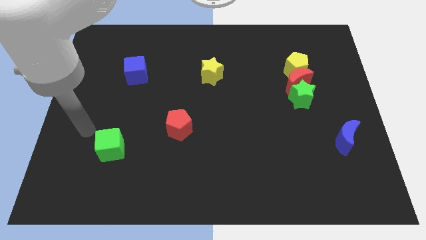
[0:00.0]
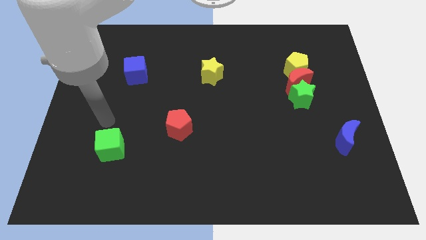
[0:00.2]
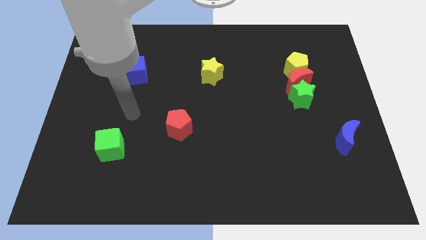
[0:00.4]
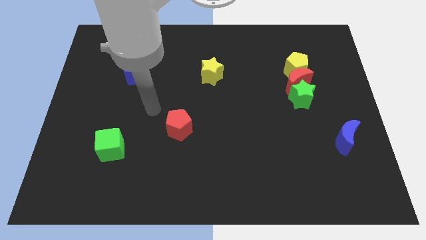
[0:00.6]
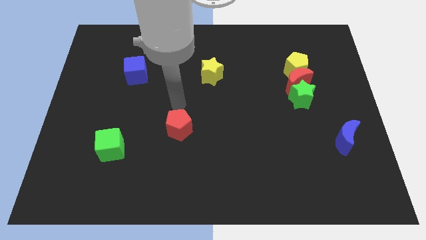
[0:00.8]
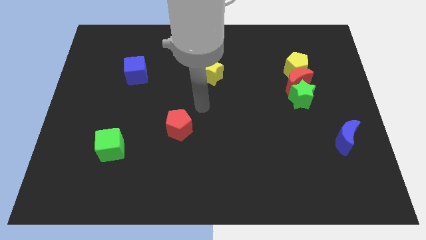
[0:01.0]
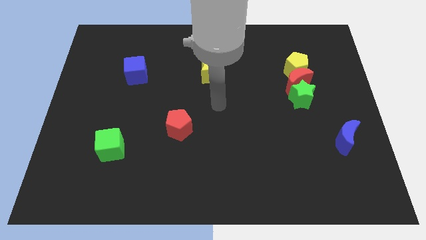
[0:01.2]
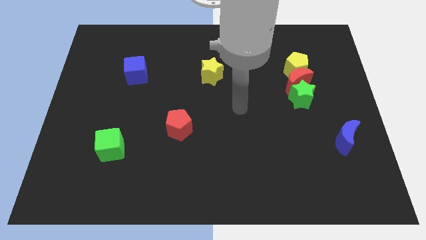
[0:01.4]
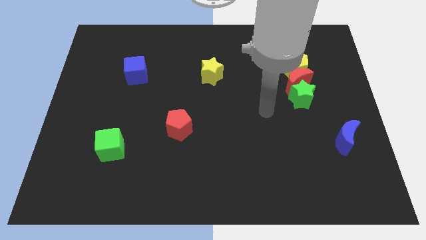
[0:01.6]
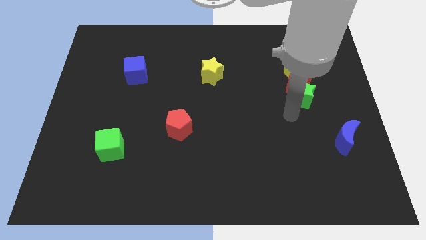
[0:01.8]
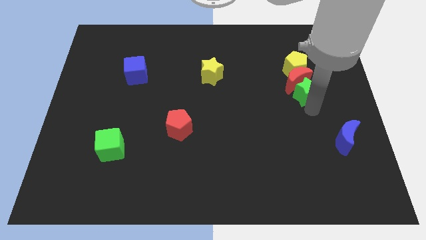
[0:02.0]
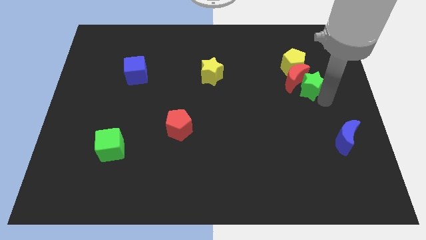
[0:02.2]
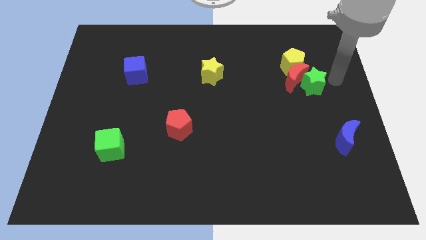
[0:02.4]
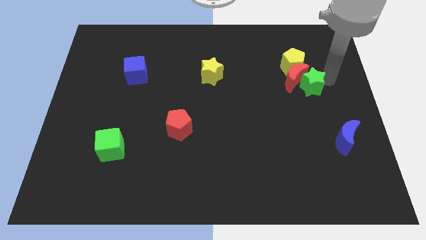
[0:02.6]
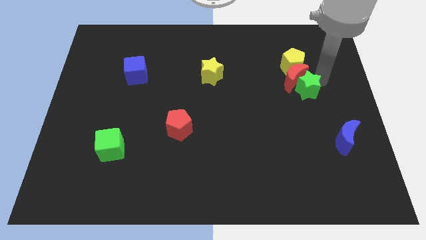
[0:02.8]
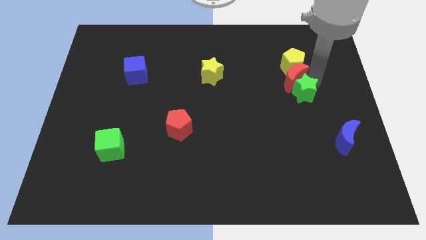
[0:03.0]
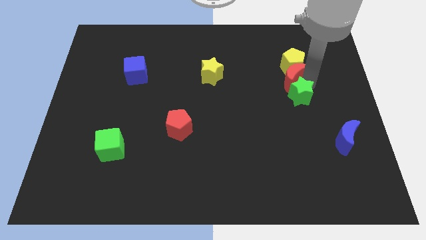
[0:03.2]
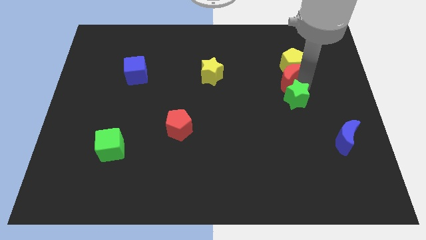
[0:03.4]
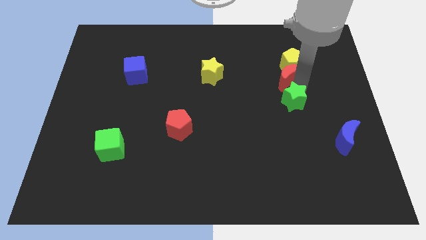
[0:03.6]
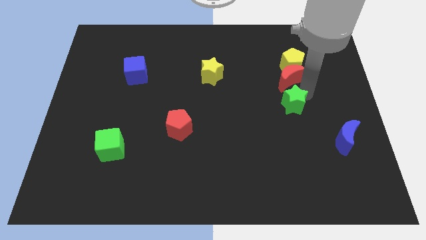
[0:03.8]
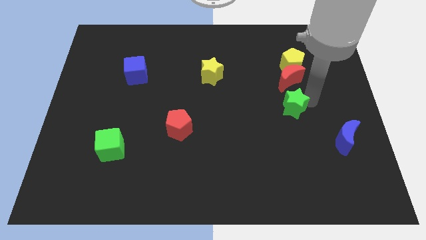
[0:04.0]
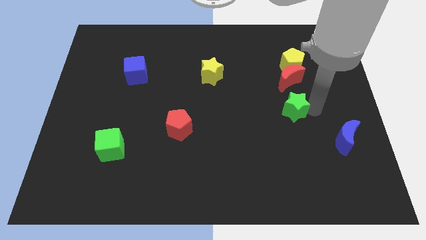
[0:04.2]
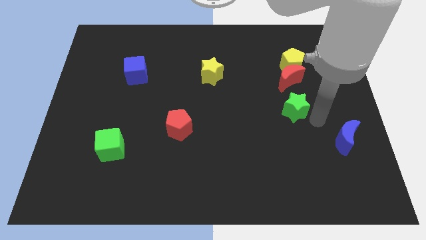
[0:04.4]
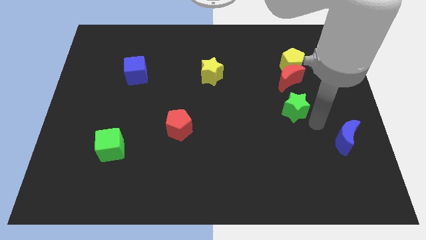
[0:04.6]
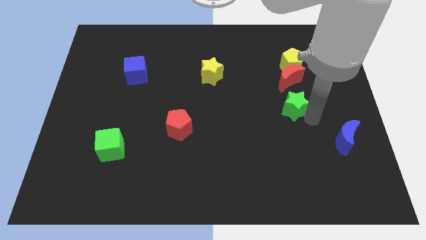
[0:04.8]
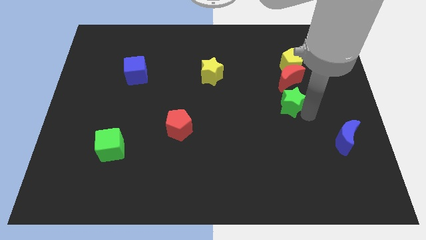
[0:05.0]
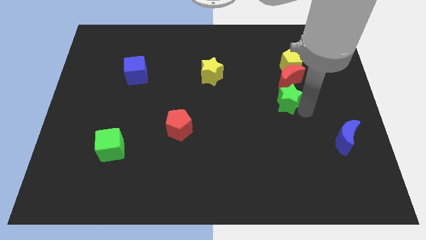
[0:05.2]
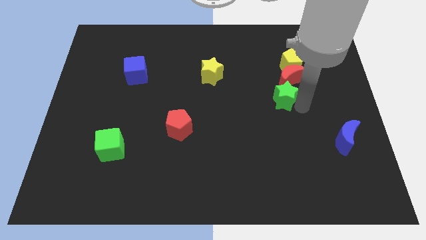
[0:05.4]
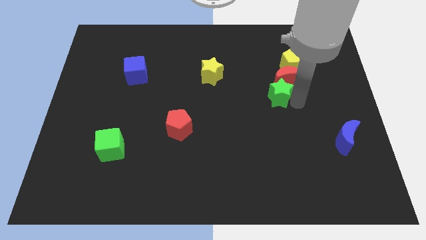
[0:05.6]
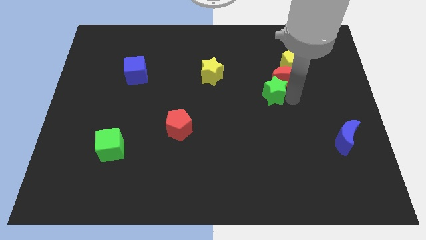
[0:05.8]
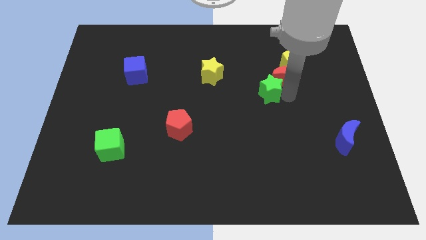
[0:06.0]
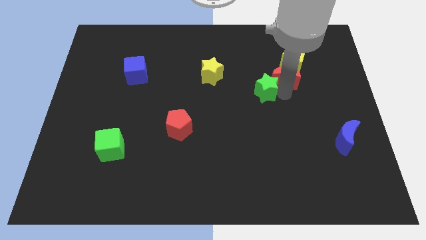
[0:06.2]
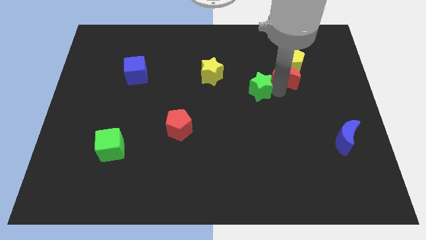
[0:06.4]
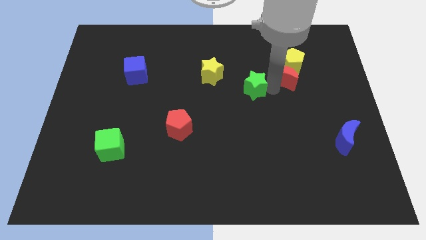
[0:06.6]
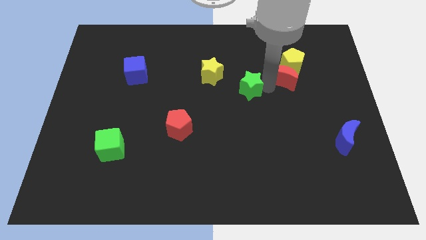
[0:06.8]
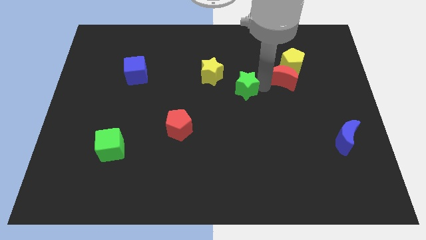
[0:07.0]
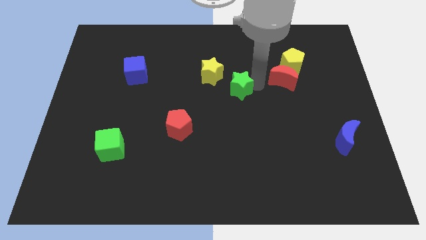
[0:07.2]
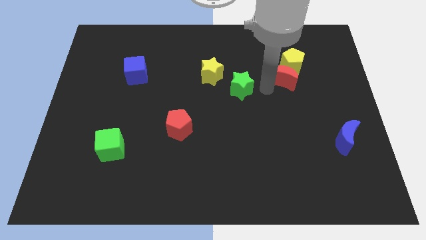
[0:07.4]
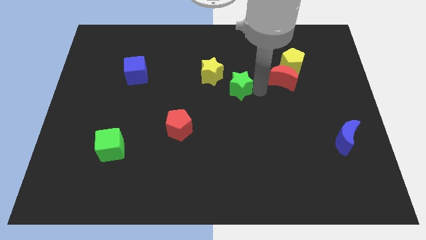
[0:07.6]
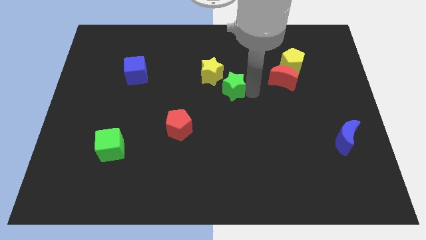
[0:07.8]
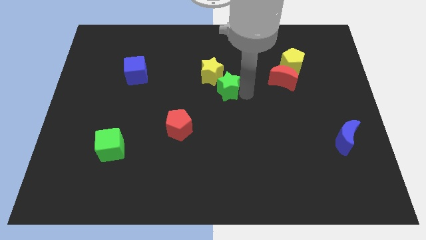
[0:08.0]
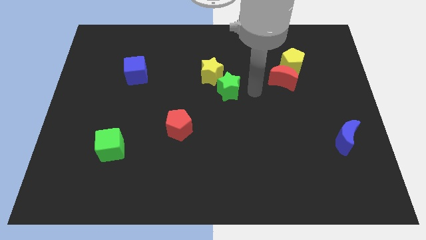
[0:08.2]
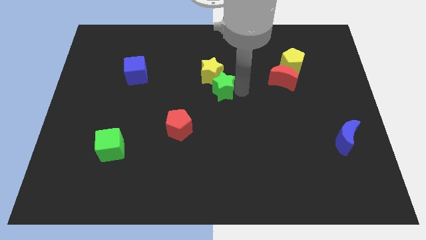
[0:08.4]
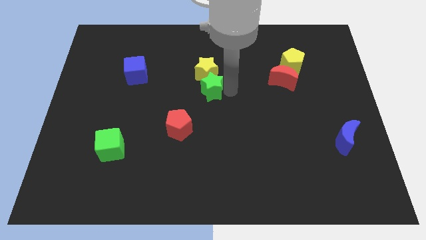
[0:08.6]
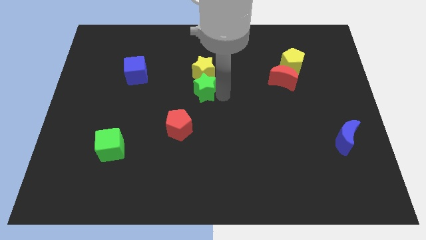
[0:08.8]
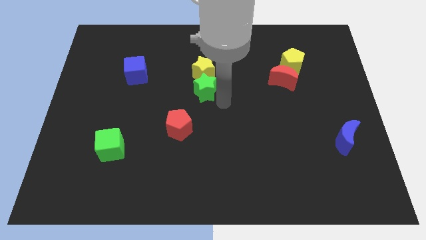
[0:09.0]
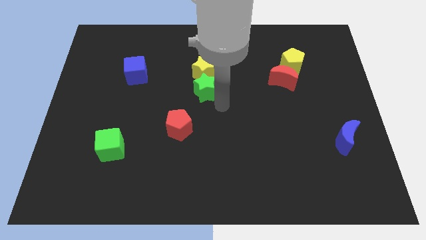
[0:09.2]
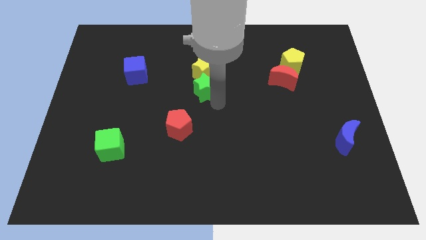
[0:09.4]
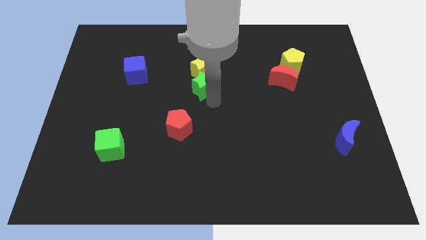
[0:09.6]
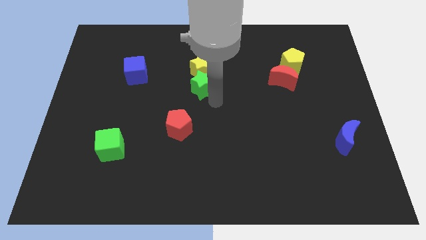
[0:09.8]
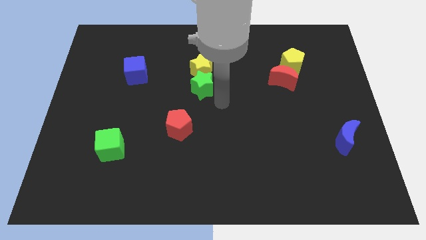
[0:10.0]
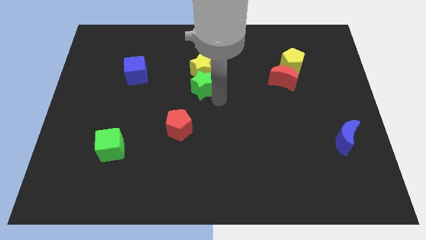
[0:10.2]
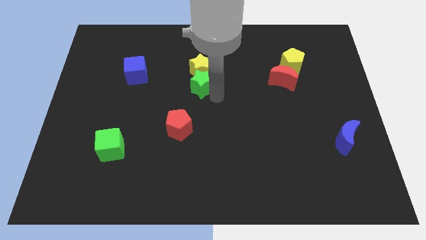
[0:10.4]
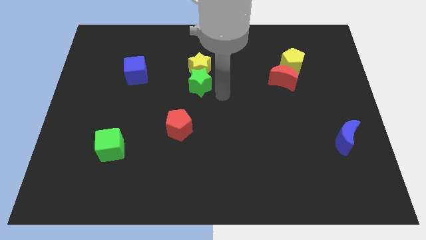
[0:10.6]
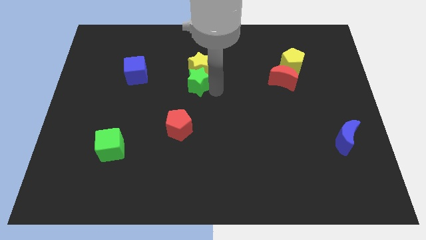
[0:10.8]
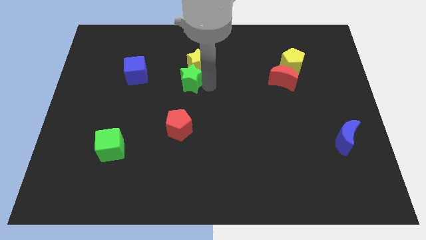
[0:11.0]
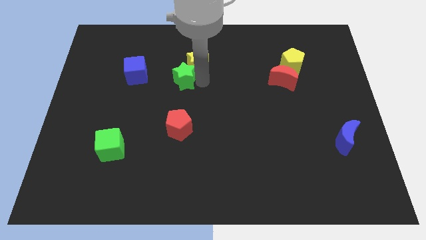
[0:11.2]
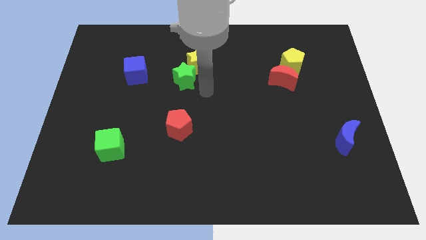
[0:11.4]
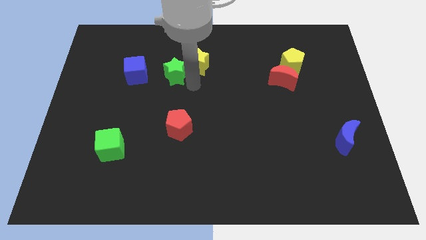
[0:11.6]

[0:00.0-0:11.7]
put the green star to the left side of the yellow star
